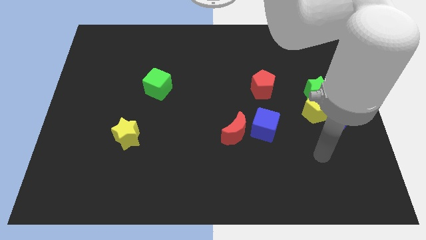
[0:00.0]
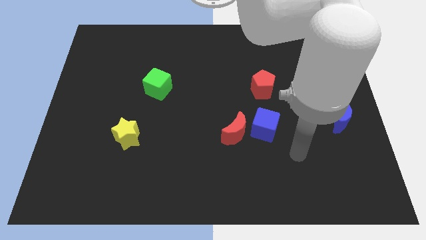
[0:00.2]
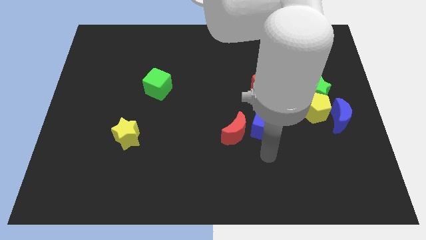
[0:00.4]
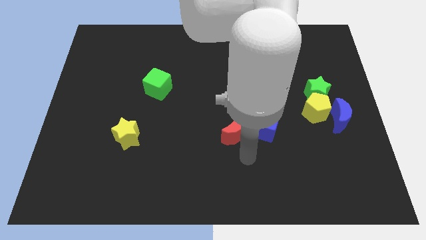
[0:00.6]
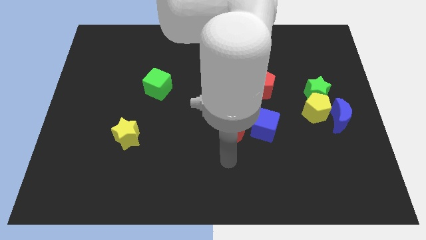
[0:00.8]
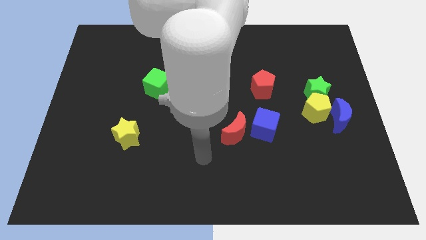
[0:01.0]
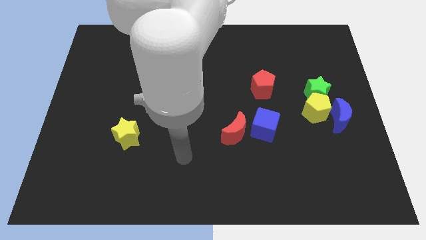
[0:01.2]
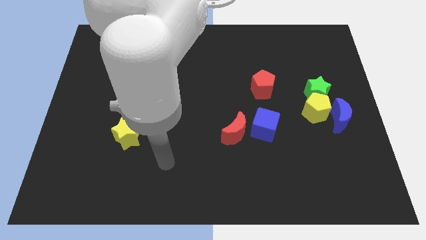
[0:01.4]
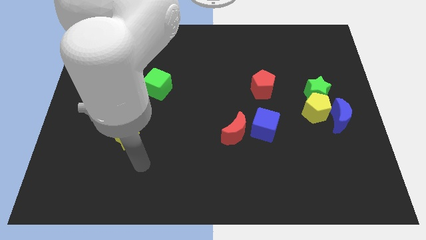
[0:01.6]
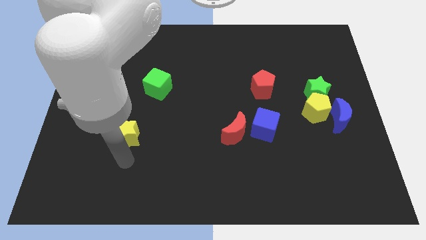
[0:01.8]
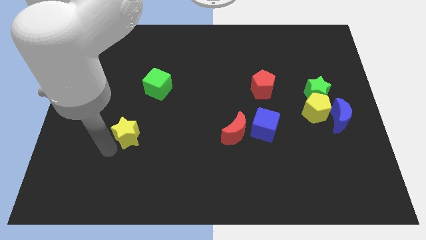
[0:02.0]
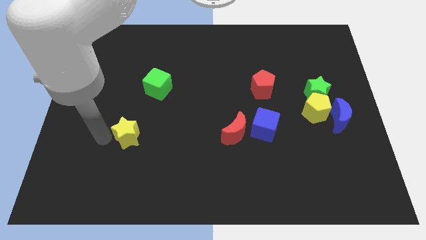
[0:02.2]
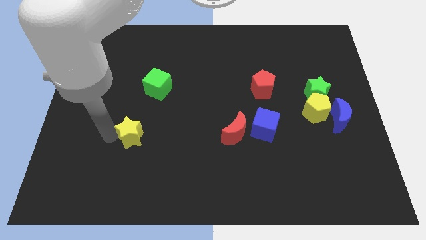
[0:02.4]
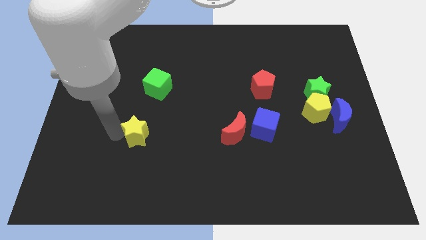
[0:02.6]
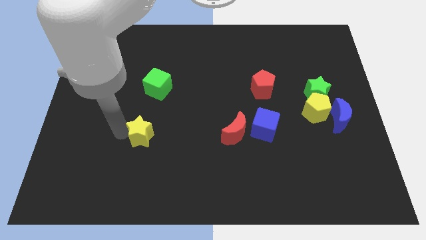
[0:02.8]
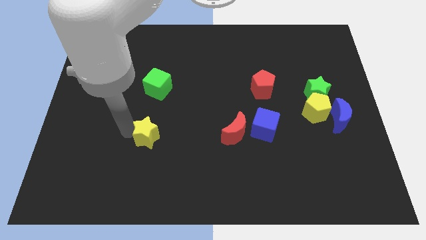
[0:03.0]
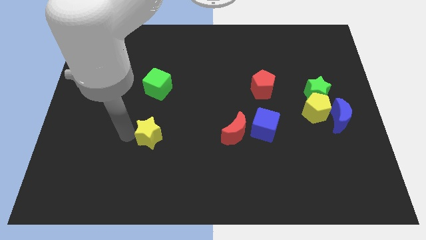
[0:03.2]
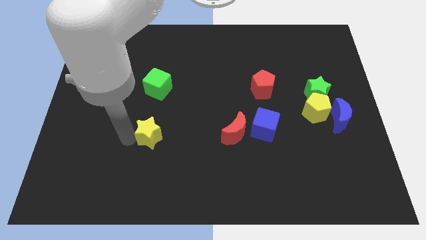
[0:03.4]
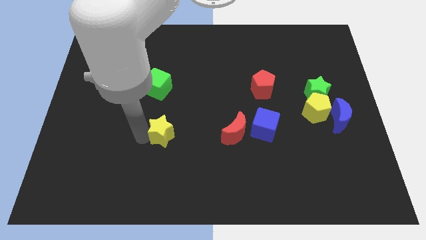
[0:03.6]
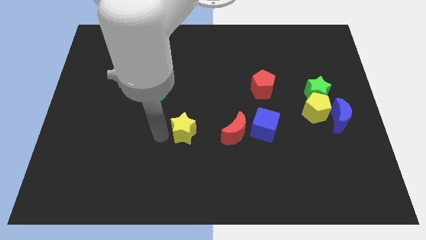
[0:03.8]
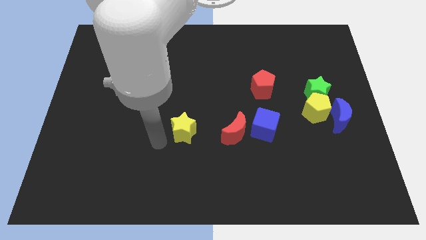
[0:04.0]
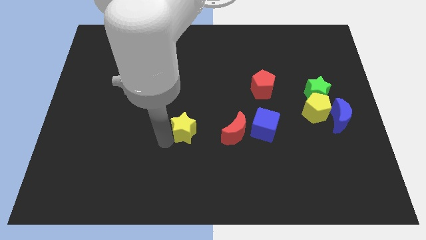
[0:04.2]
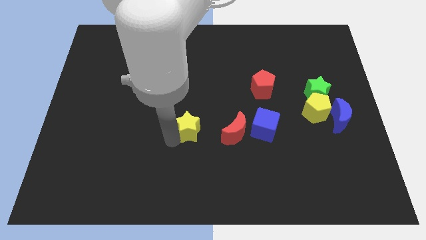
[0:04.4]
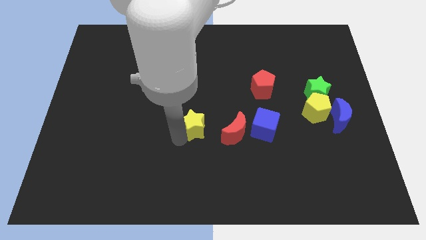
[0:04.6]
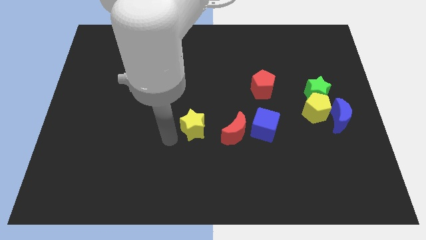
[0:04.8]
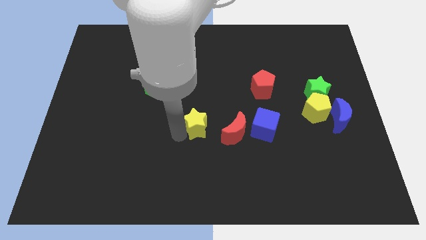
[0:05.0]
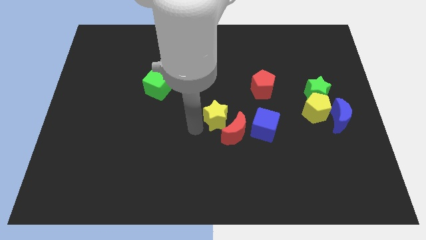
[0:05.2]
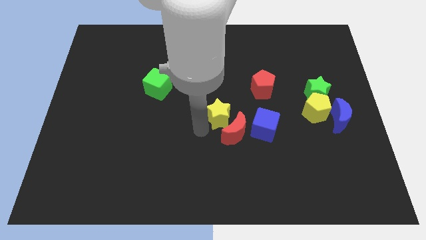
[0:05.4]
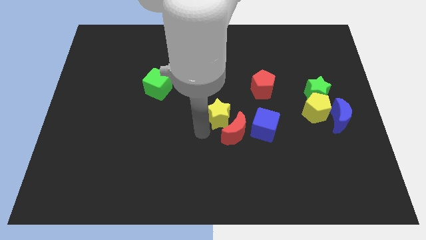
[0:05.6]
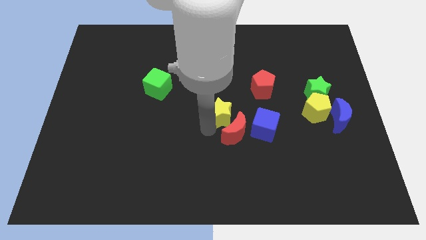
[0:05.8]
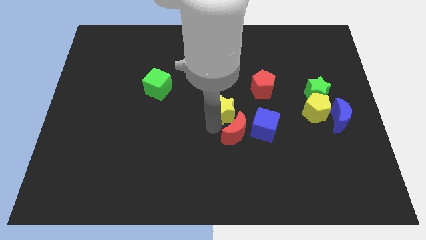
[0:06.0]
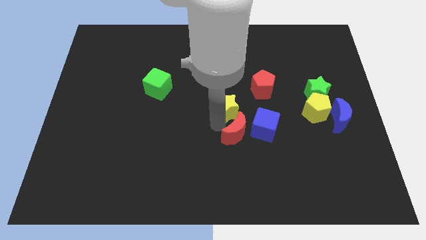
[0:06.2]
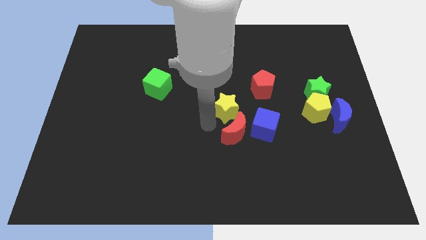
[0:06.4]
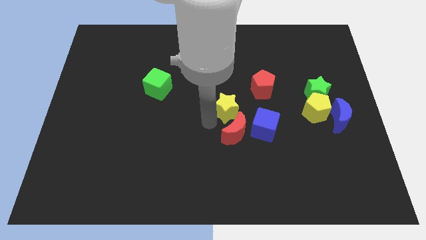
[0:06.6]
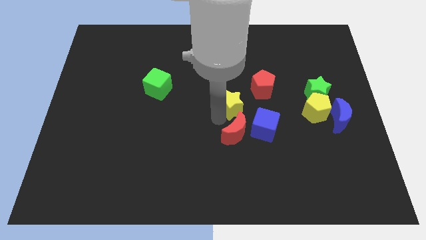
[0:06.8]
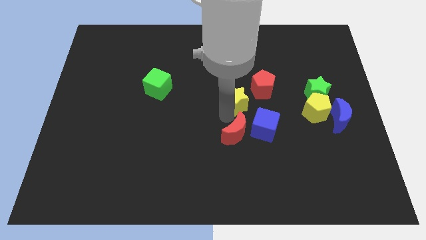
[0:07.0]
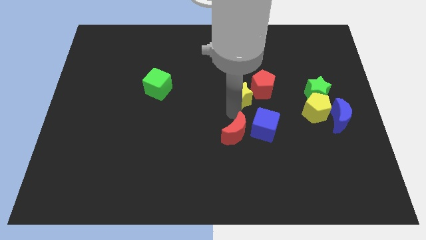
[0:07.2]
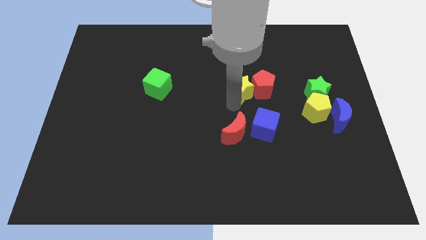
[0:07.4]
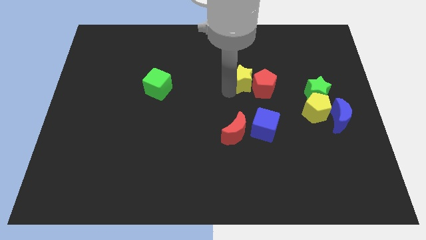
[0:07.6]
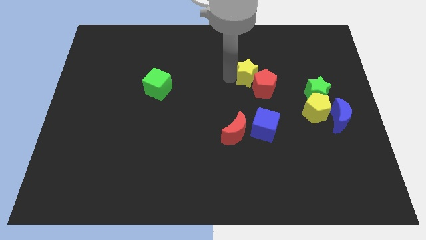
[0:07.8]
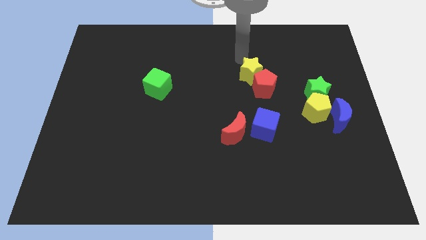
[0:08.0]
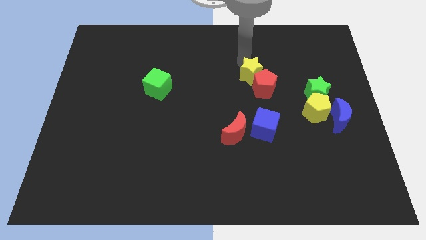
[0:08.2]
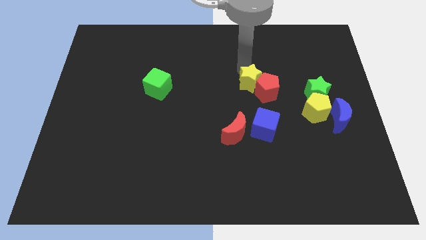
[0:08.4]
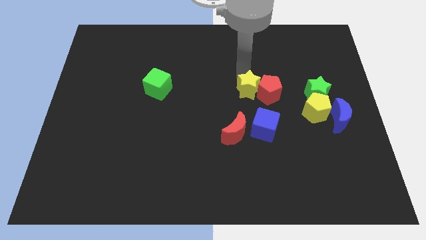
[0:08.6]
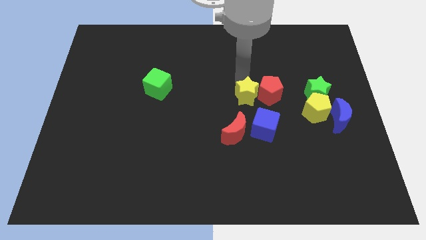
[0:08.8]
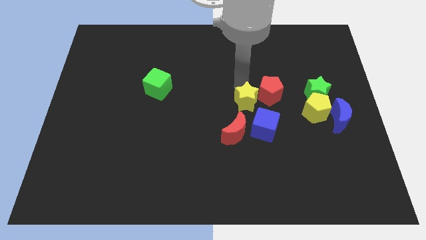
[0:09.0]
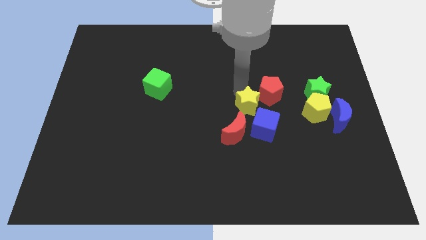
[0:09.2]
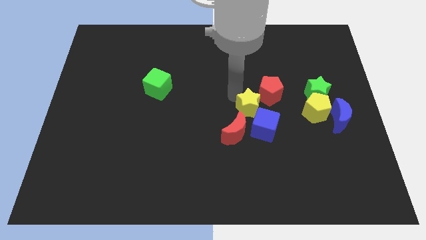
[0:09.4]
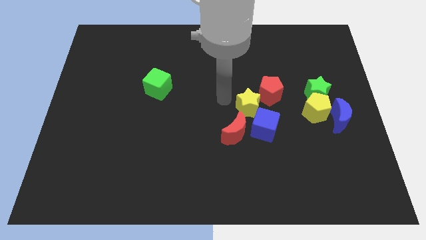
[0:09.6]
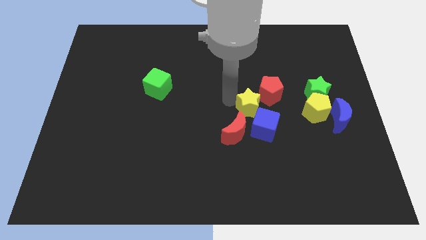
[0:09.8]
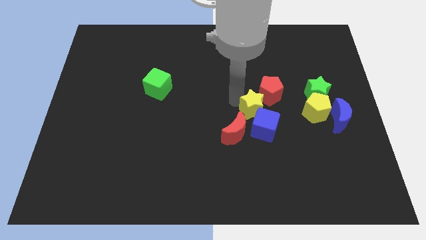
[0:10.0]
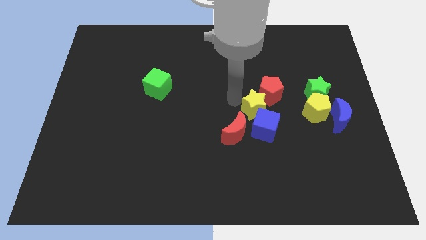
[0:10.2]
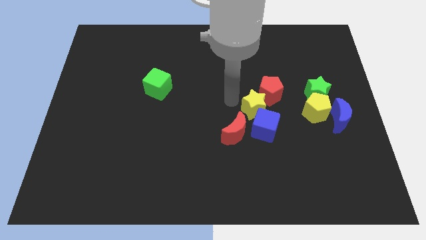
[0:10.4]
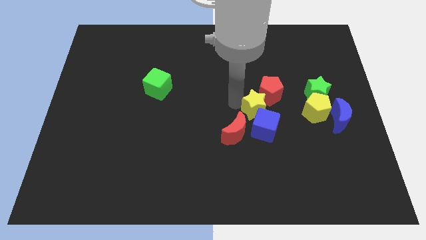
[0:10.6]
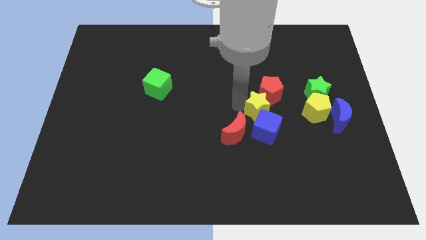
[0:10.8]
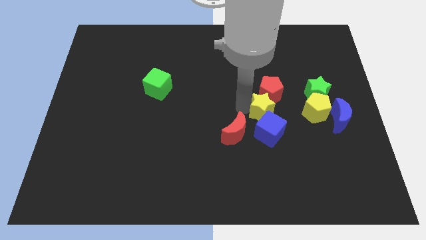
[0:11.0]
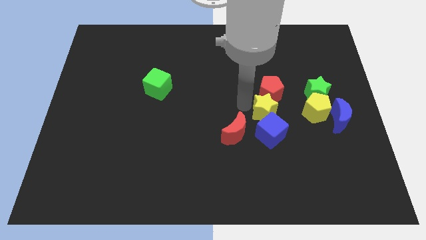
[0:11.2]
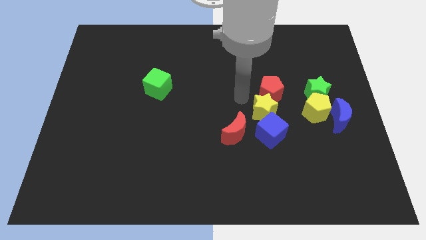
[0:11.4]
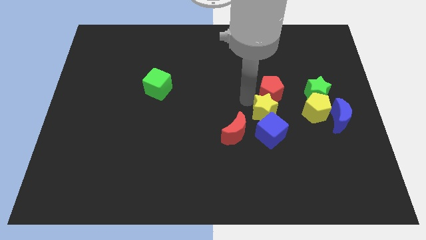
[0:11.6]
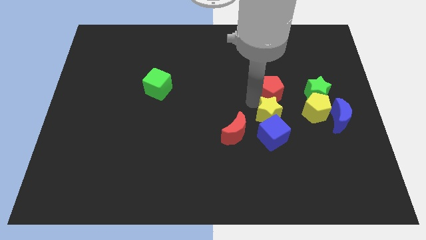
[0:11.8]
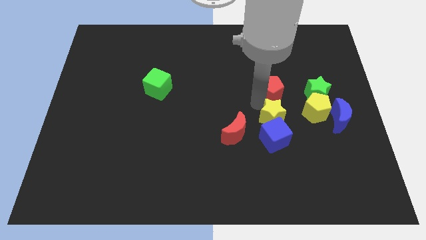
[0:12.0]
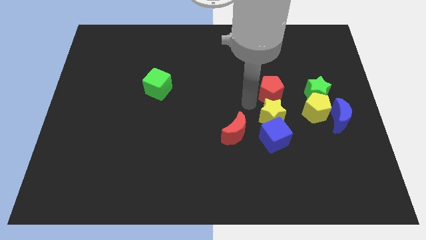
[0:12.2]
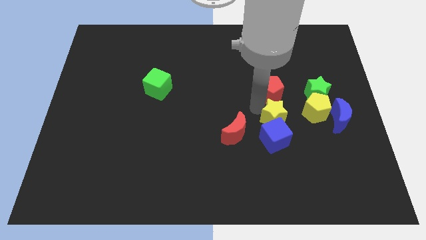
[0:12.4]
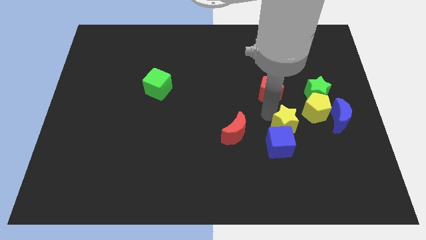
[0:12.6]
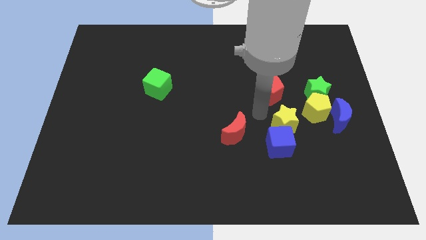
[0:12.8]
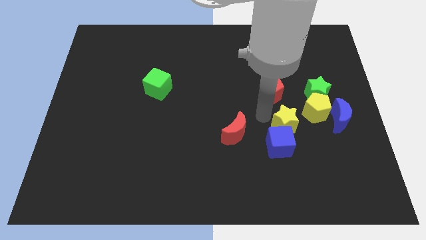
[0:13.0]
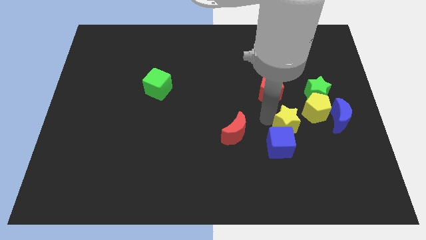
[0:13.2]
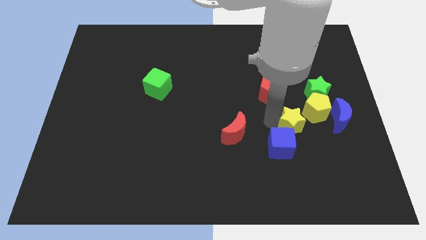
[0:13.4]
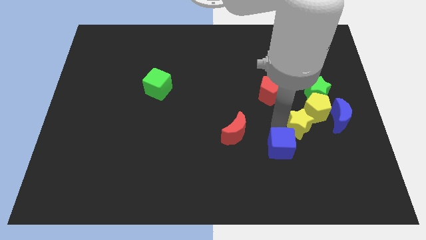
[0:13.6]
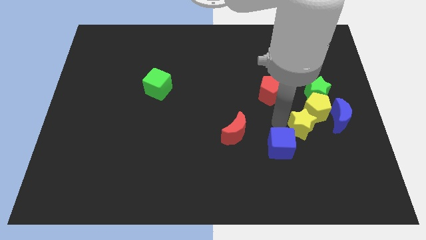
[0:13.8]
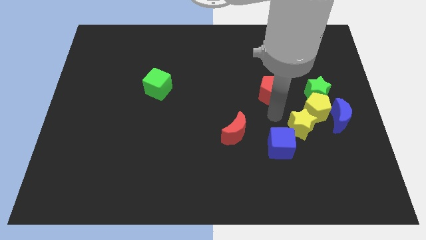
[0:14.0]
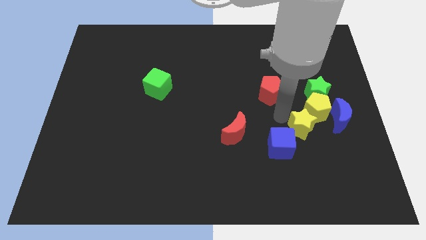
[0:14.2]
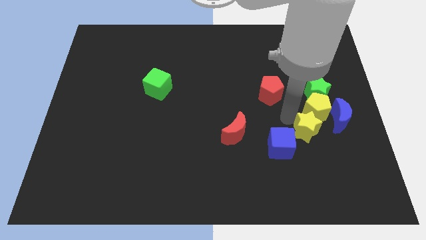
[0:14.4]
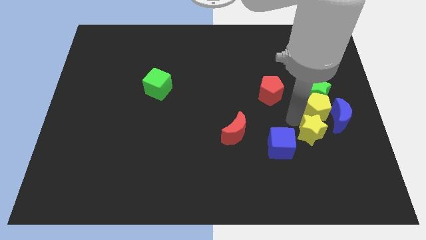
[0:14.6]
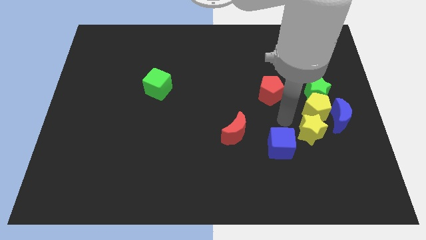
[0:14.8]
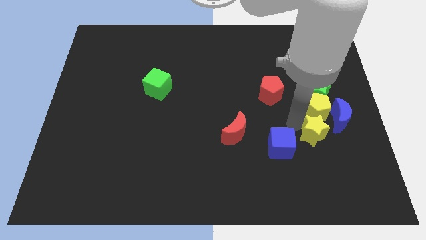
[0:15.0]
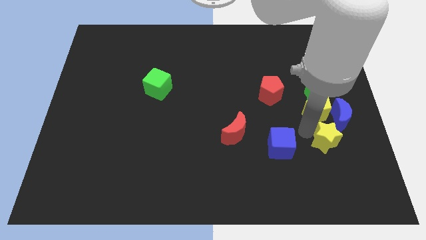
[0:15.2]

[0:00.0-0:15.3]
slide the yellow star to the bottom right of the yellow pentagon
